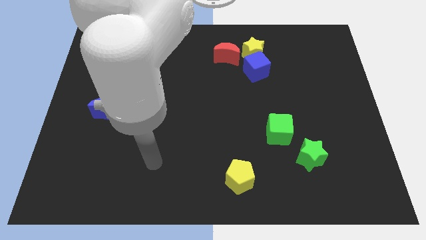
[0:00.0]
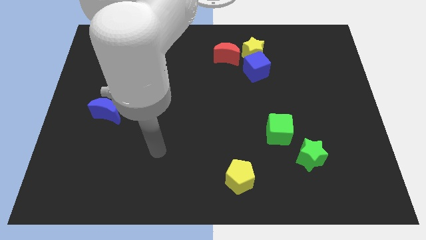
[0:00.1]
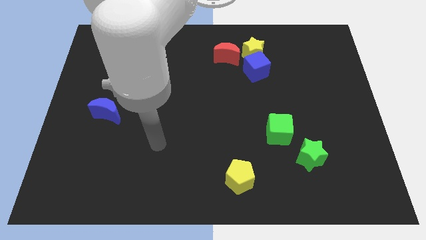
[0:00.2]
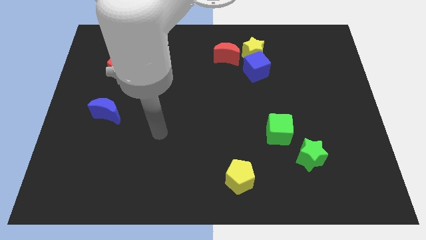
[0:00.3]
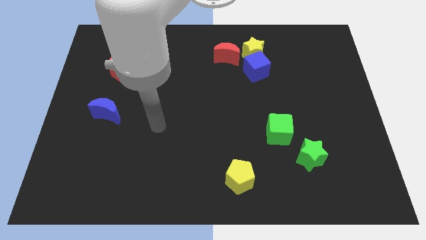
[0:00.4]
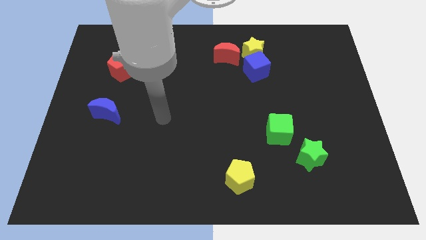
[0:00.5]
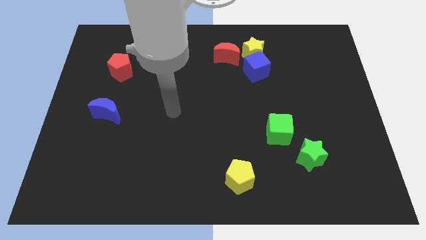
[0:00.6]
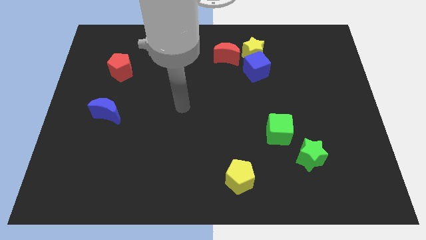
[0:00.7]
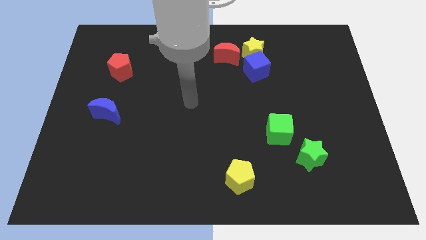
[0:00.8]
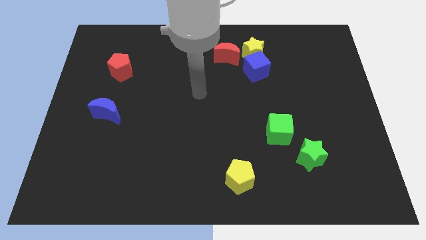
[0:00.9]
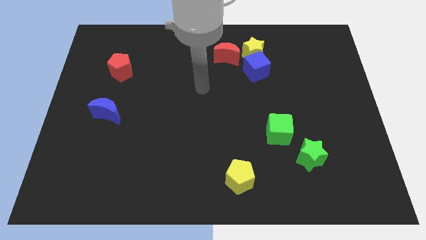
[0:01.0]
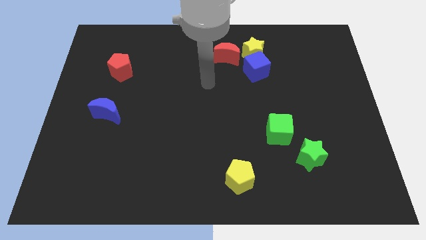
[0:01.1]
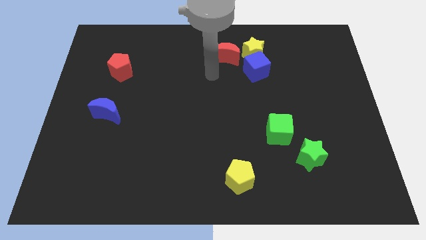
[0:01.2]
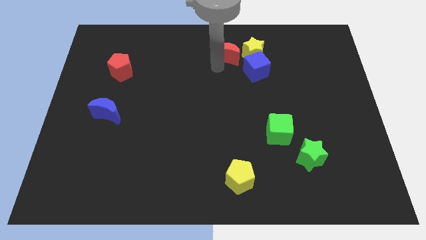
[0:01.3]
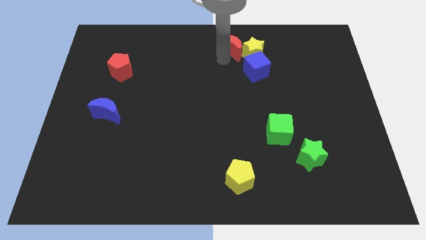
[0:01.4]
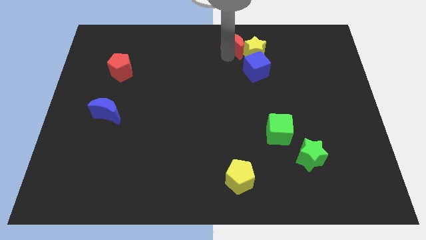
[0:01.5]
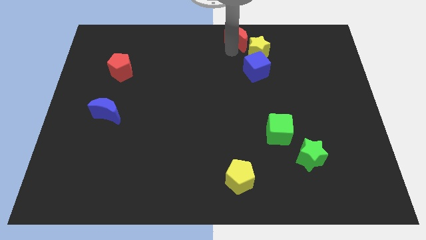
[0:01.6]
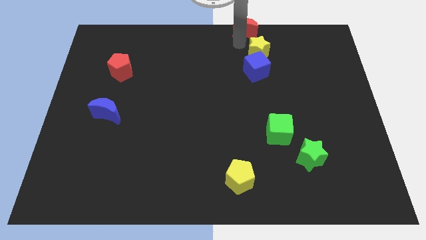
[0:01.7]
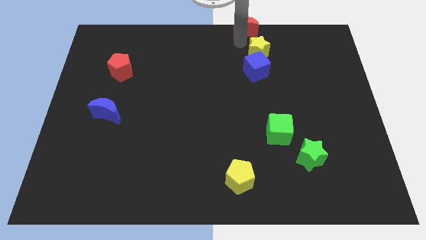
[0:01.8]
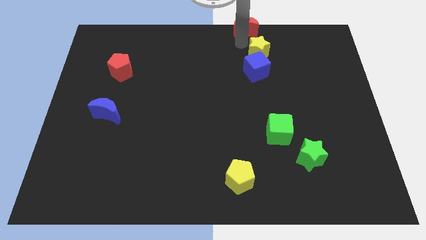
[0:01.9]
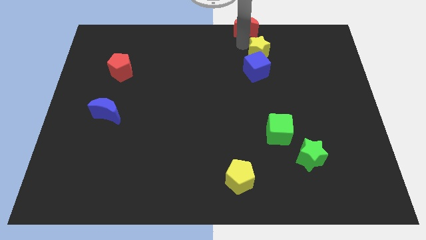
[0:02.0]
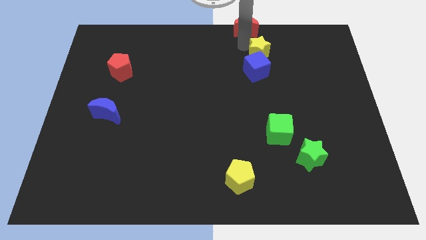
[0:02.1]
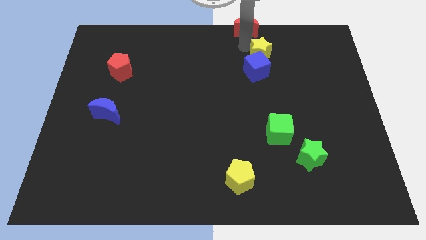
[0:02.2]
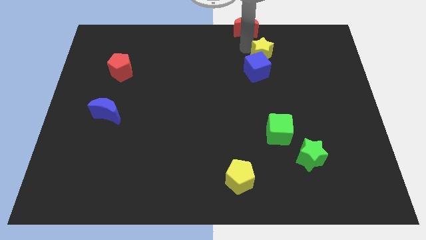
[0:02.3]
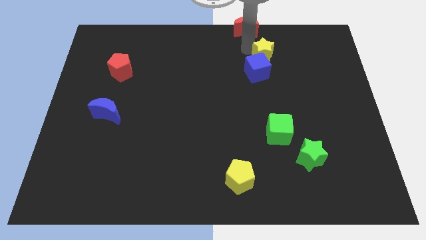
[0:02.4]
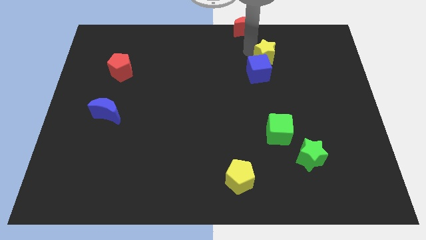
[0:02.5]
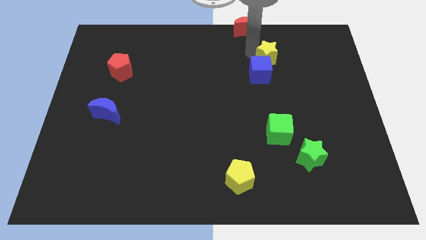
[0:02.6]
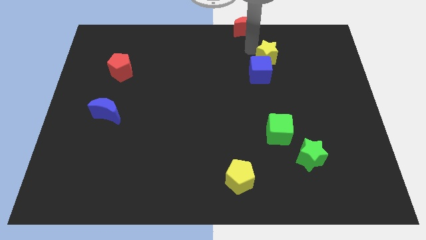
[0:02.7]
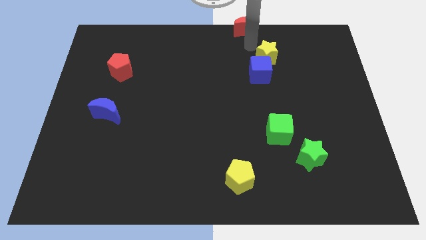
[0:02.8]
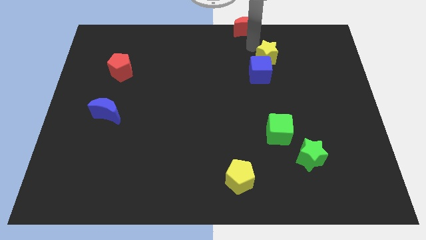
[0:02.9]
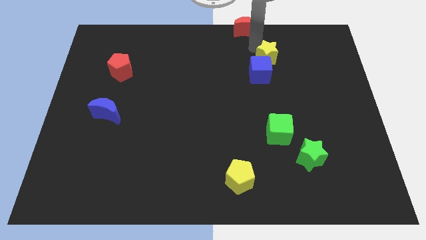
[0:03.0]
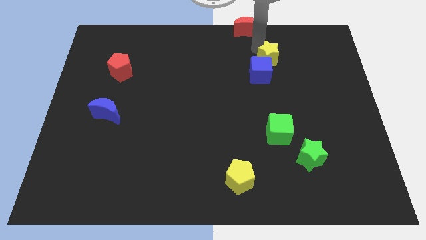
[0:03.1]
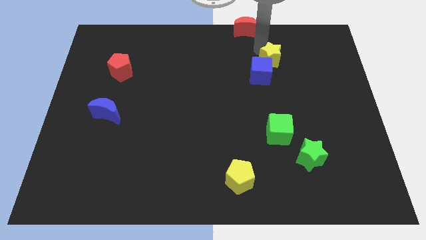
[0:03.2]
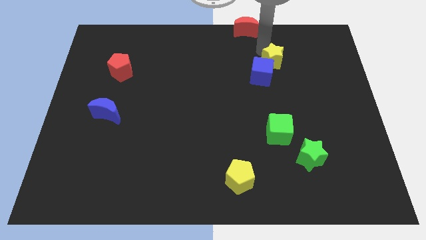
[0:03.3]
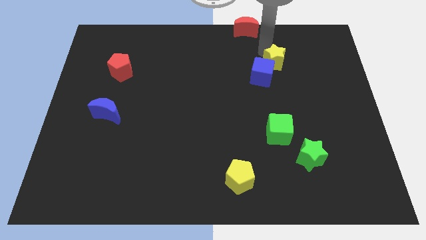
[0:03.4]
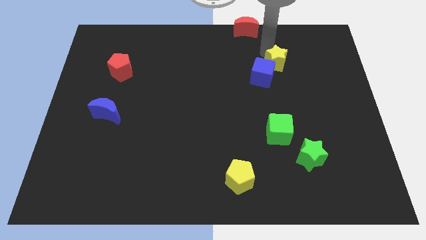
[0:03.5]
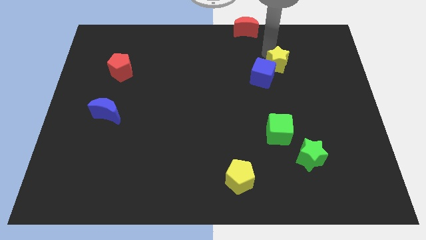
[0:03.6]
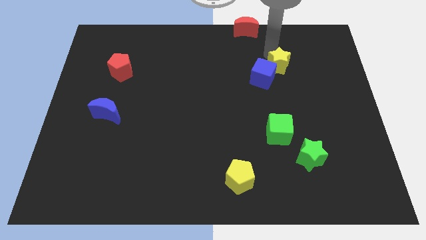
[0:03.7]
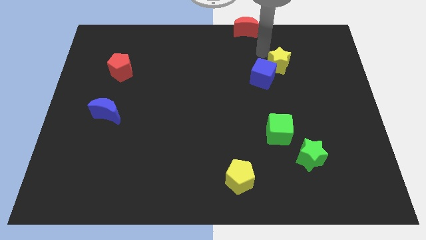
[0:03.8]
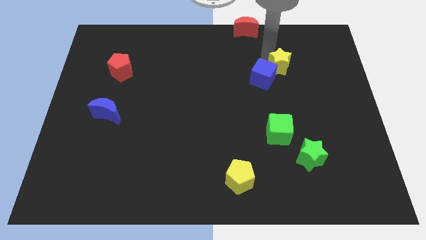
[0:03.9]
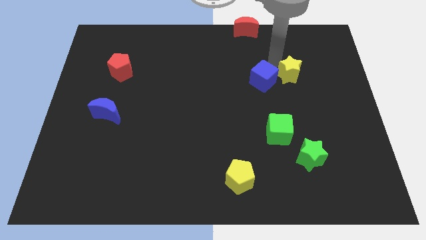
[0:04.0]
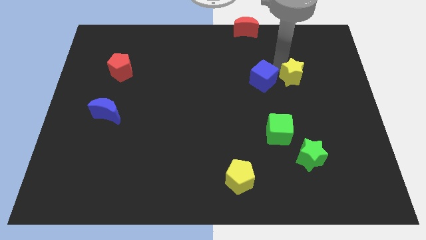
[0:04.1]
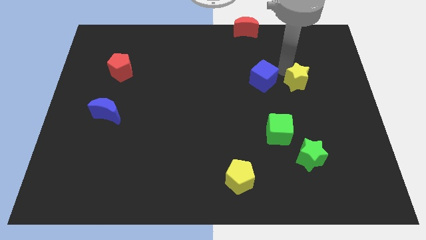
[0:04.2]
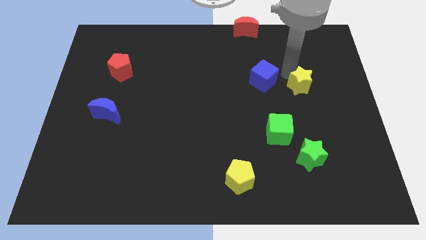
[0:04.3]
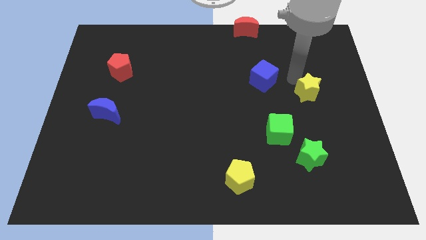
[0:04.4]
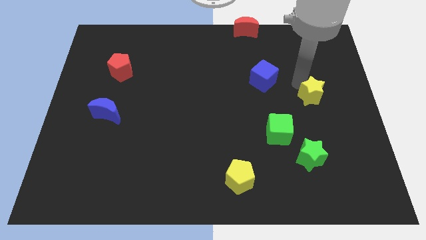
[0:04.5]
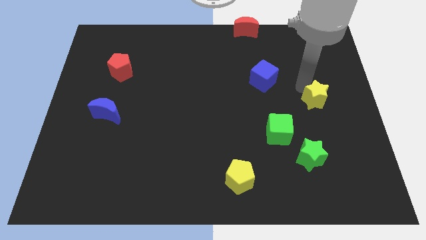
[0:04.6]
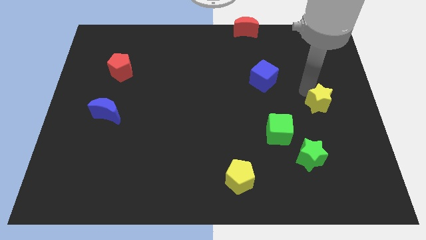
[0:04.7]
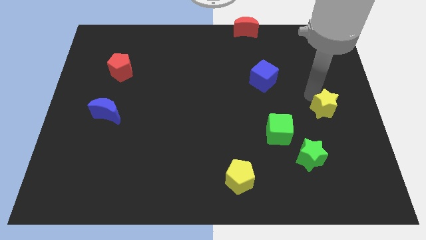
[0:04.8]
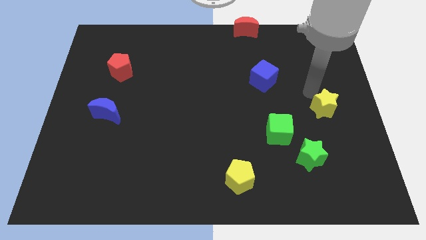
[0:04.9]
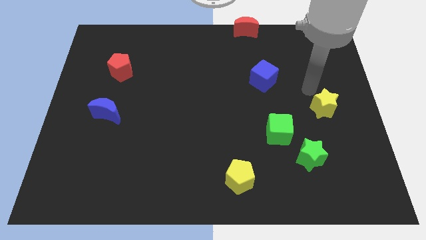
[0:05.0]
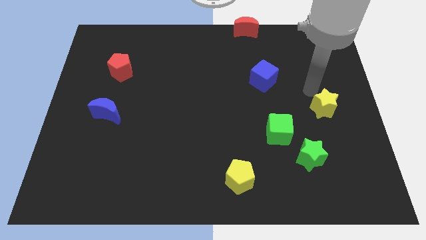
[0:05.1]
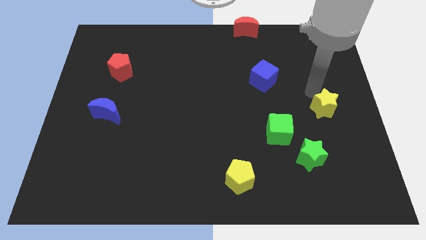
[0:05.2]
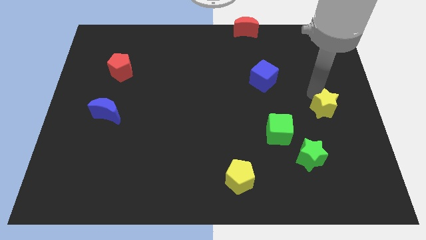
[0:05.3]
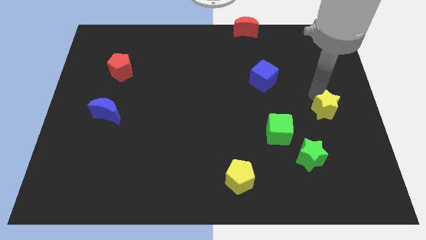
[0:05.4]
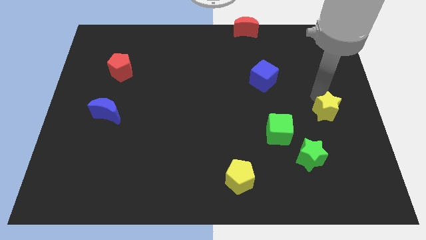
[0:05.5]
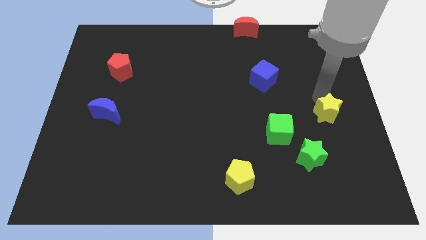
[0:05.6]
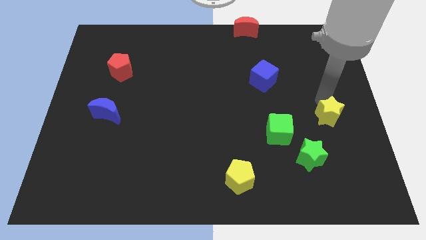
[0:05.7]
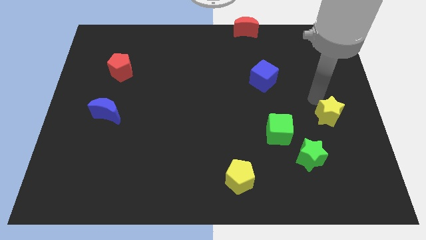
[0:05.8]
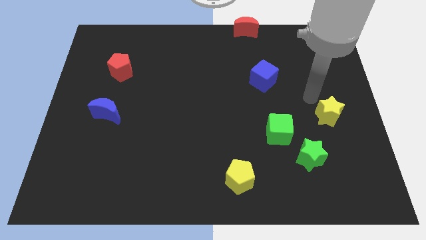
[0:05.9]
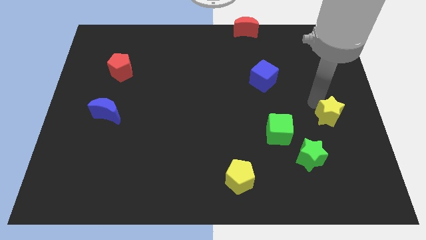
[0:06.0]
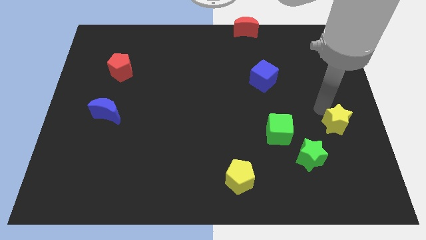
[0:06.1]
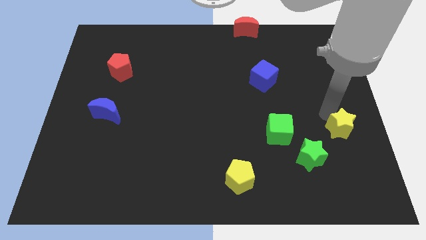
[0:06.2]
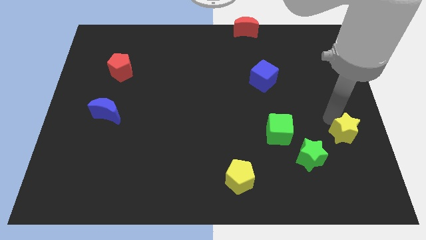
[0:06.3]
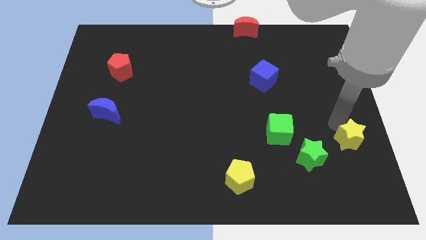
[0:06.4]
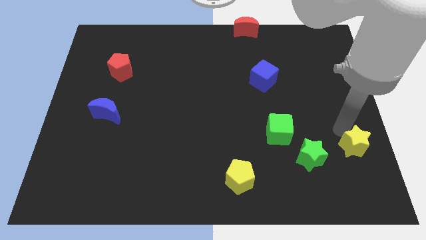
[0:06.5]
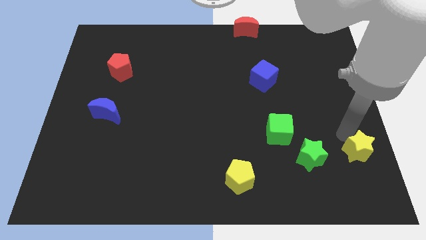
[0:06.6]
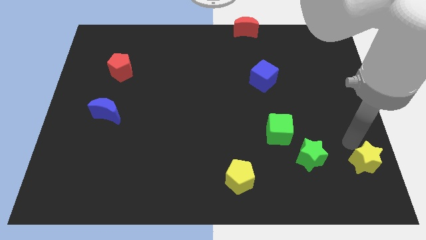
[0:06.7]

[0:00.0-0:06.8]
put the yellow star to the lower right corner

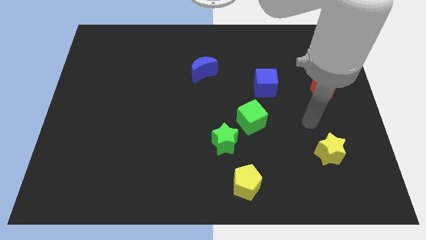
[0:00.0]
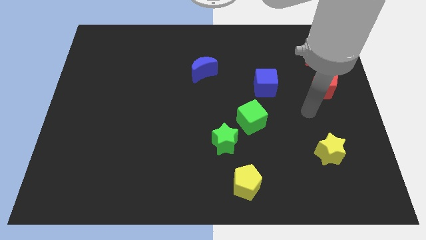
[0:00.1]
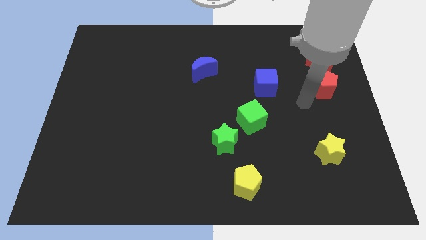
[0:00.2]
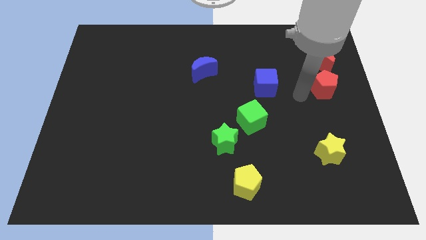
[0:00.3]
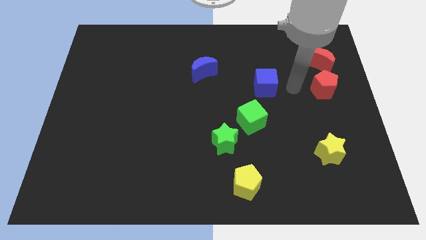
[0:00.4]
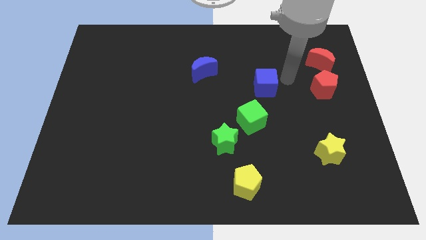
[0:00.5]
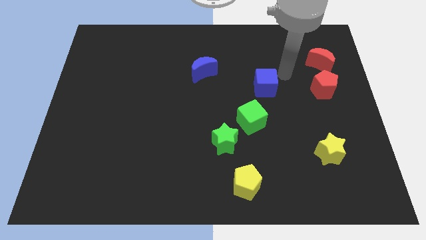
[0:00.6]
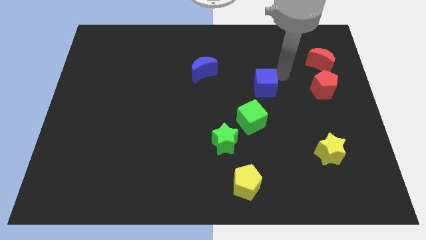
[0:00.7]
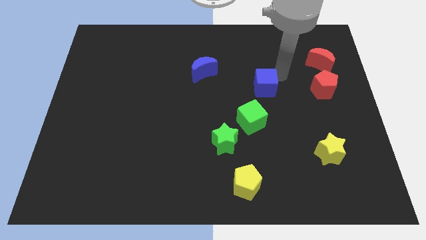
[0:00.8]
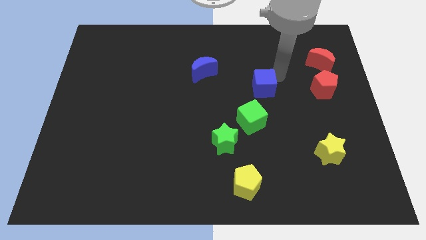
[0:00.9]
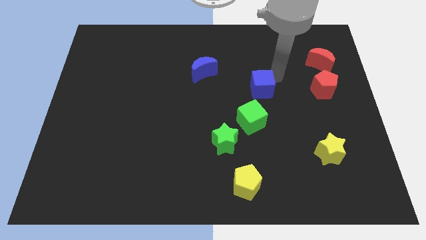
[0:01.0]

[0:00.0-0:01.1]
push the blue cube to the center of the board
